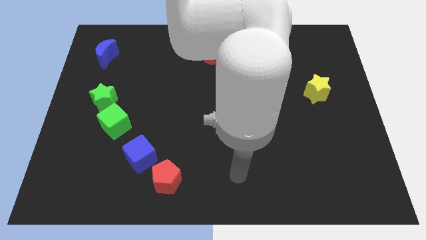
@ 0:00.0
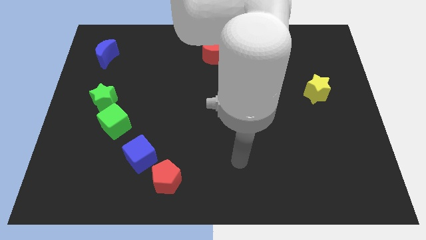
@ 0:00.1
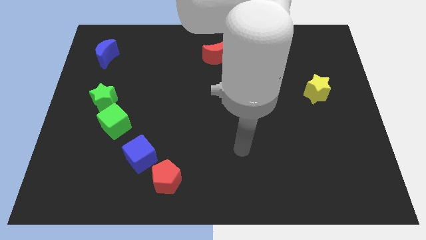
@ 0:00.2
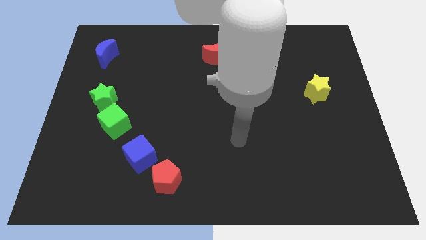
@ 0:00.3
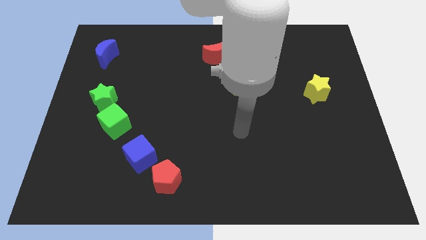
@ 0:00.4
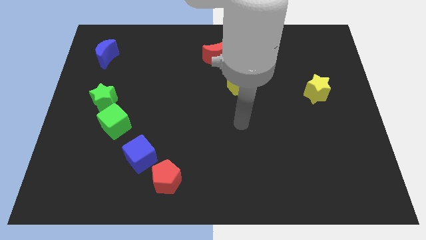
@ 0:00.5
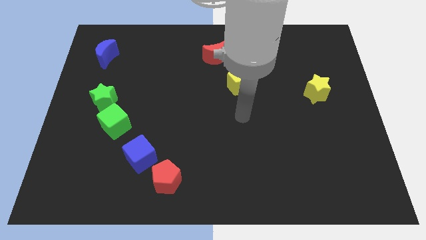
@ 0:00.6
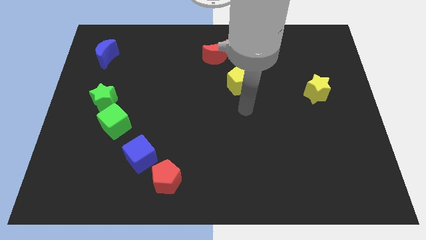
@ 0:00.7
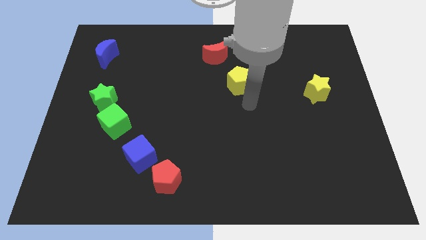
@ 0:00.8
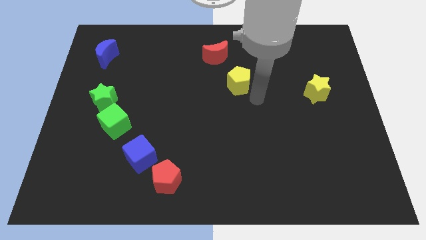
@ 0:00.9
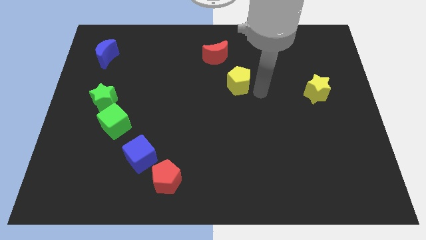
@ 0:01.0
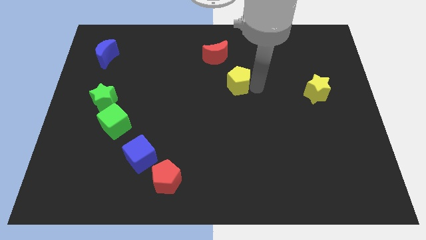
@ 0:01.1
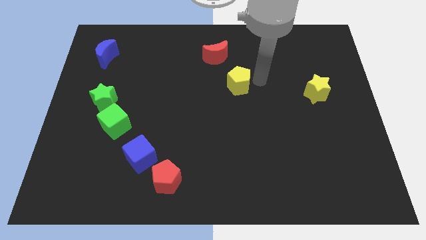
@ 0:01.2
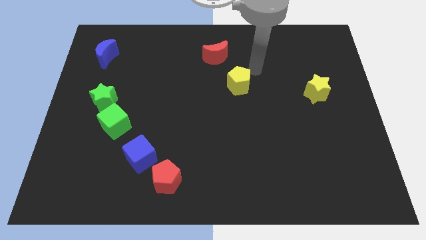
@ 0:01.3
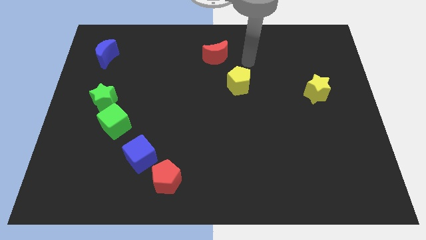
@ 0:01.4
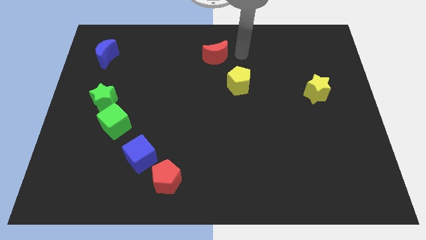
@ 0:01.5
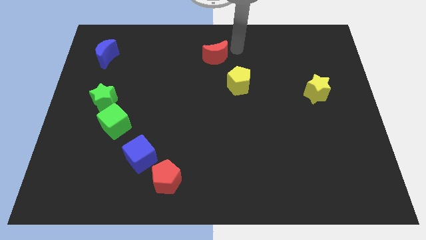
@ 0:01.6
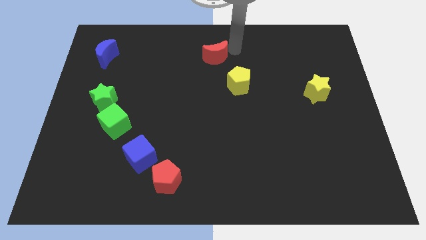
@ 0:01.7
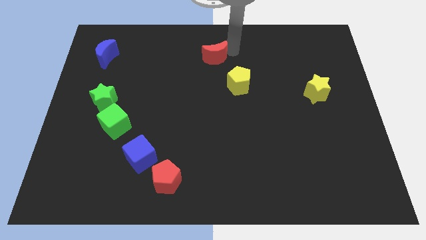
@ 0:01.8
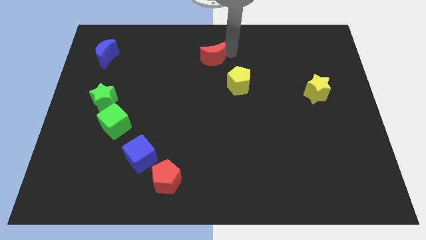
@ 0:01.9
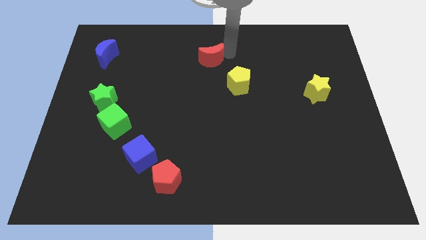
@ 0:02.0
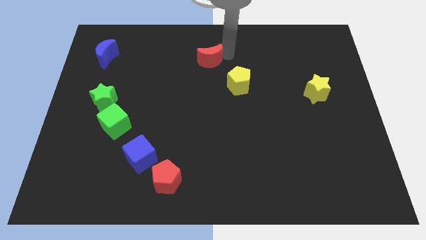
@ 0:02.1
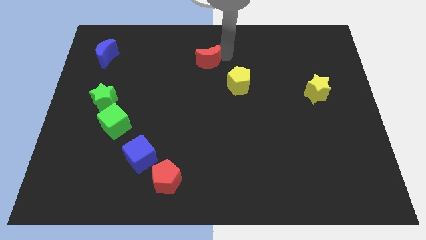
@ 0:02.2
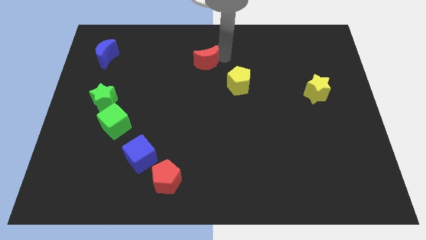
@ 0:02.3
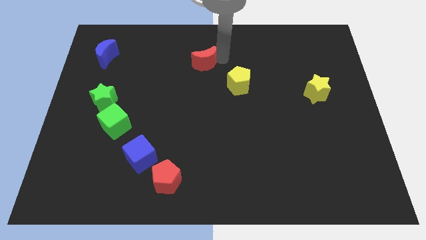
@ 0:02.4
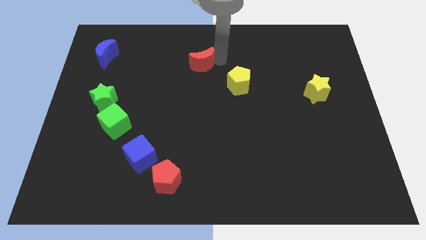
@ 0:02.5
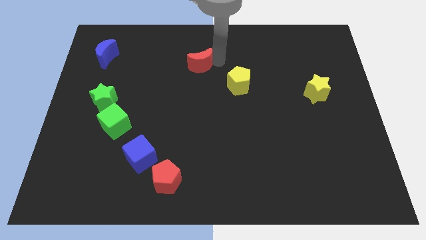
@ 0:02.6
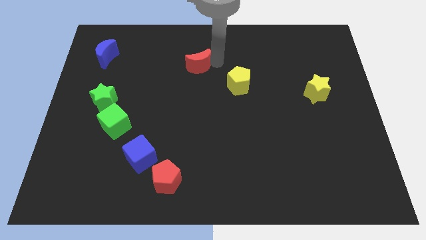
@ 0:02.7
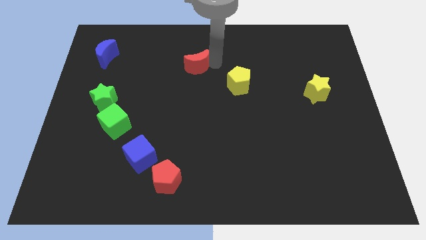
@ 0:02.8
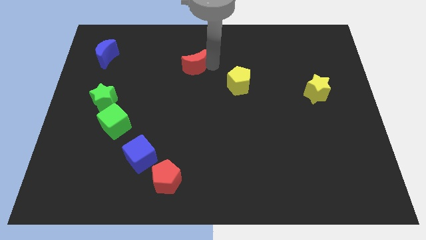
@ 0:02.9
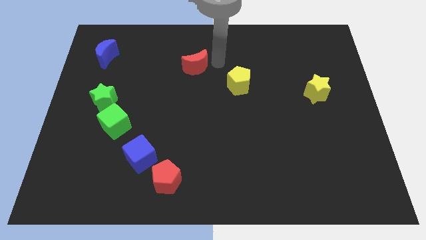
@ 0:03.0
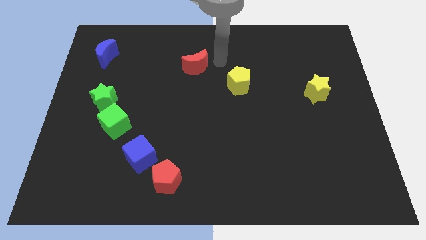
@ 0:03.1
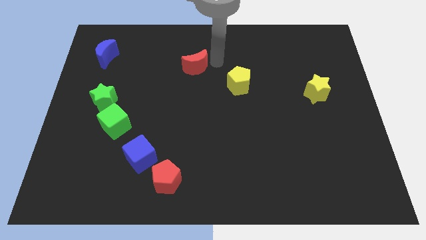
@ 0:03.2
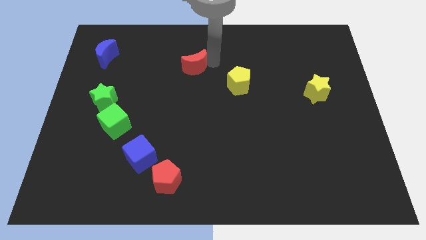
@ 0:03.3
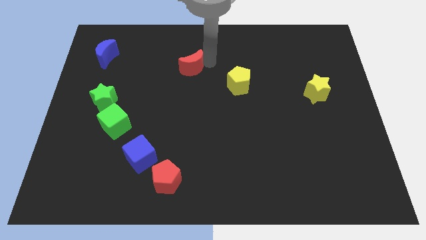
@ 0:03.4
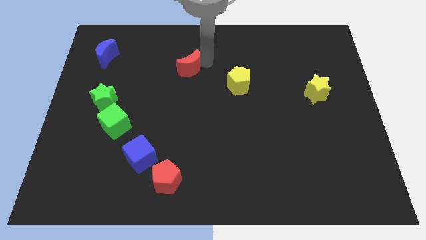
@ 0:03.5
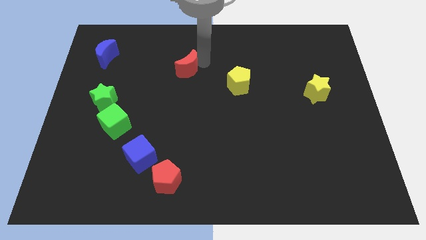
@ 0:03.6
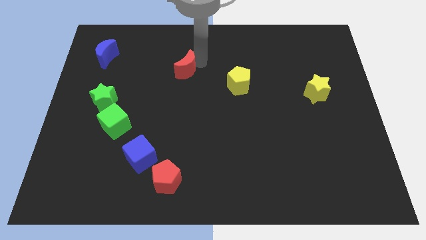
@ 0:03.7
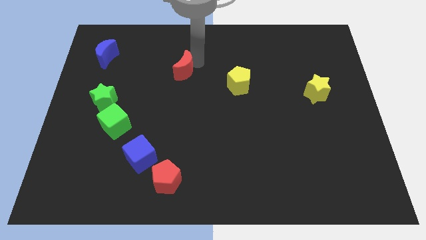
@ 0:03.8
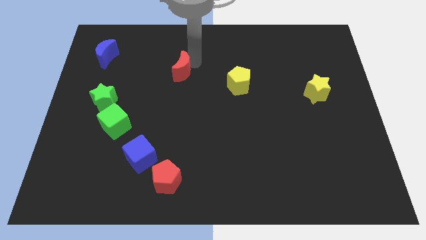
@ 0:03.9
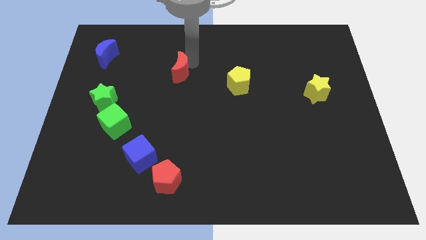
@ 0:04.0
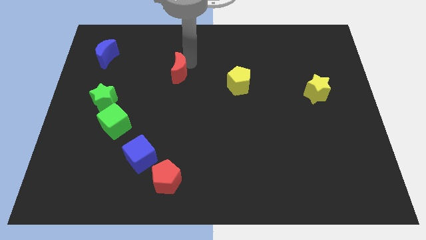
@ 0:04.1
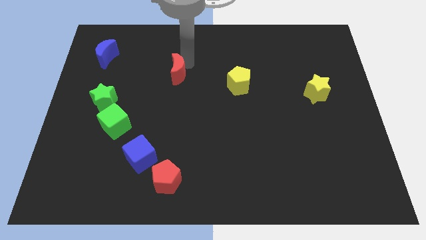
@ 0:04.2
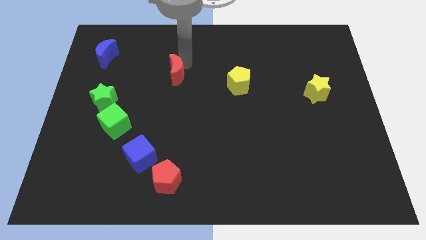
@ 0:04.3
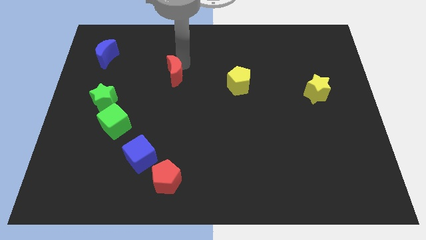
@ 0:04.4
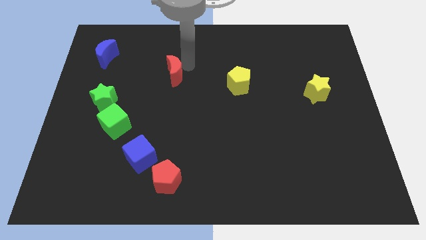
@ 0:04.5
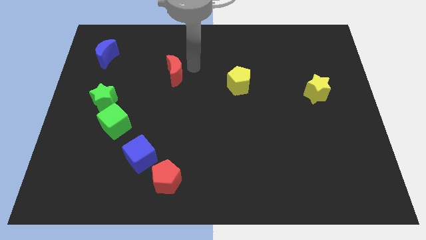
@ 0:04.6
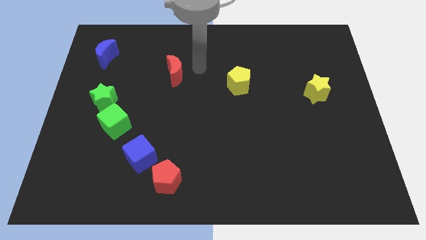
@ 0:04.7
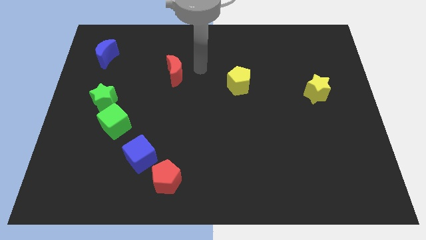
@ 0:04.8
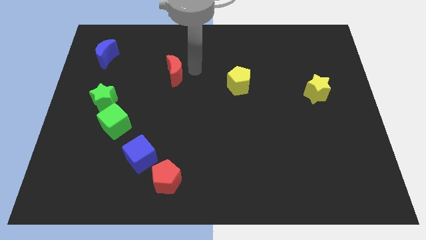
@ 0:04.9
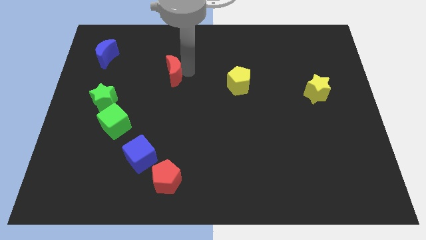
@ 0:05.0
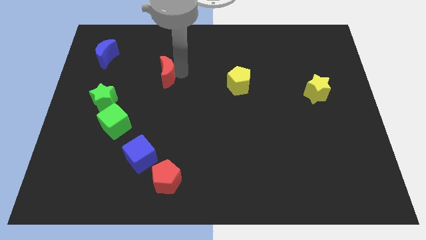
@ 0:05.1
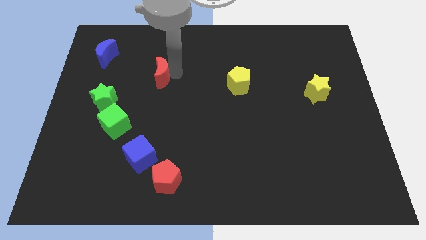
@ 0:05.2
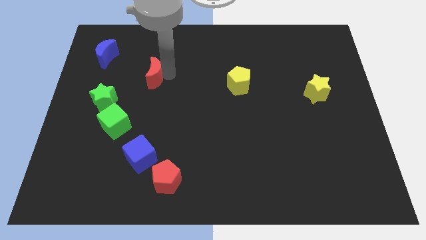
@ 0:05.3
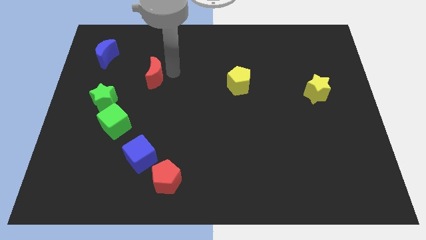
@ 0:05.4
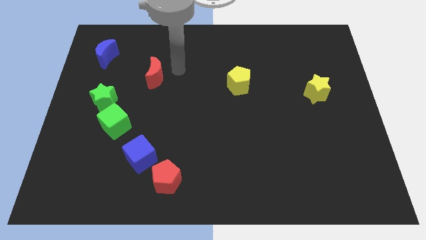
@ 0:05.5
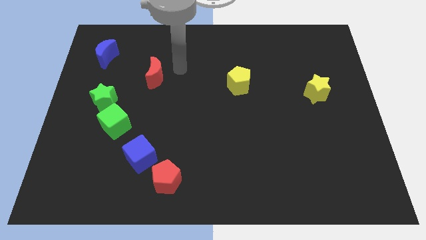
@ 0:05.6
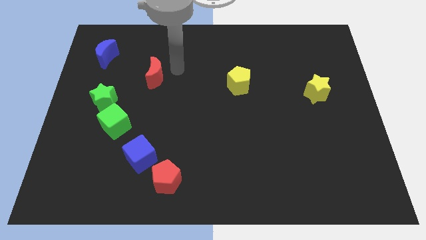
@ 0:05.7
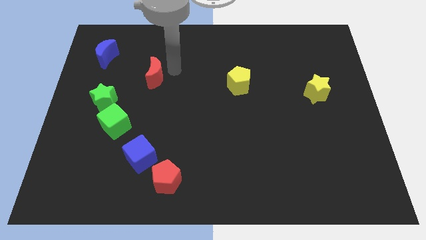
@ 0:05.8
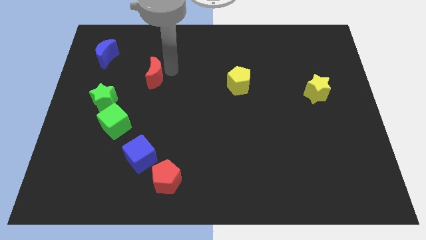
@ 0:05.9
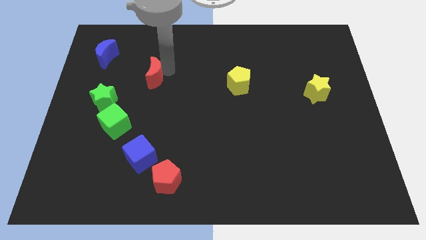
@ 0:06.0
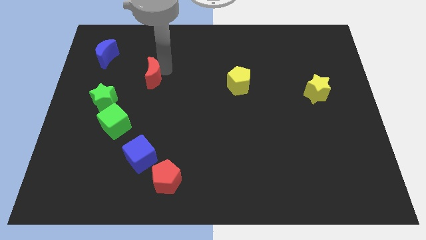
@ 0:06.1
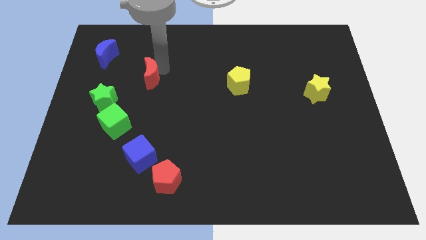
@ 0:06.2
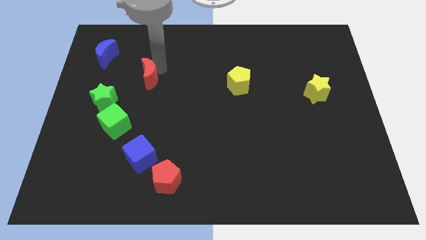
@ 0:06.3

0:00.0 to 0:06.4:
slide the red moon to the top right side of the green star

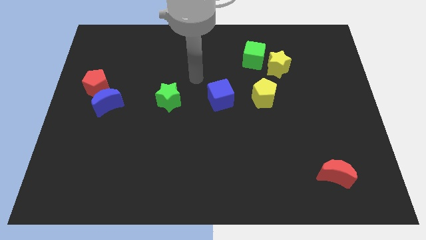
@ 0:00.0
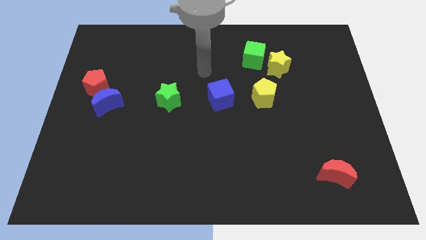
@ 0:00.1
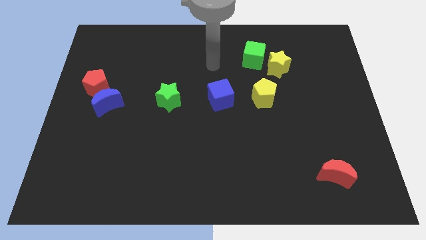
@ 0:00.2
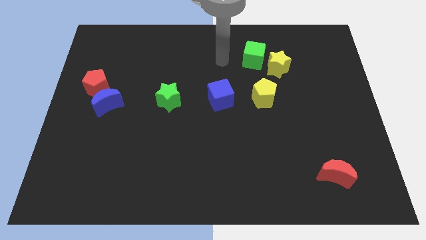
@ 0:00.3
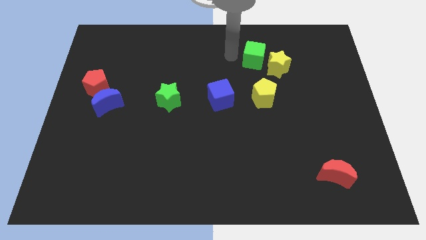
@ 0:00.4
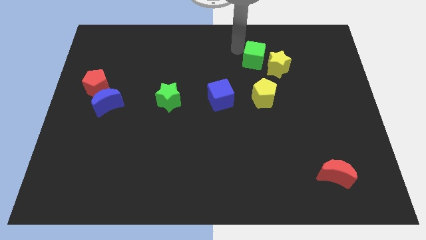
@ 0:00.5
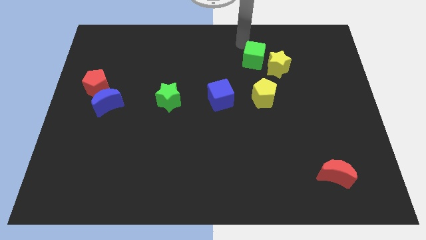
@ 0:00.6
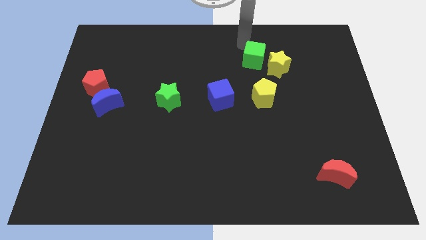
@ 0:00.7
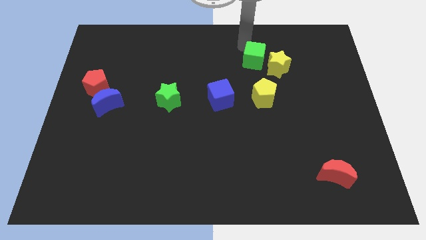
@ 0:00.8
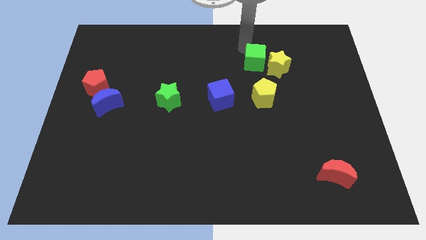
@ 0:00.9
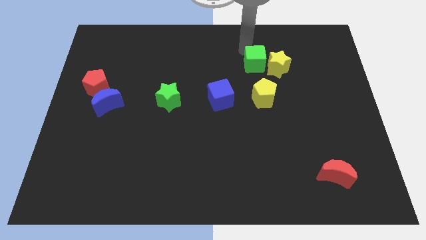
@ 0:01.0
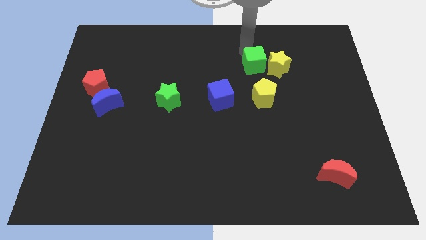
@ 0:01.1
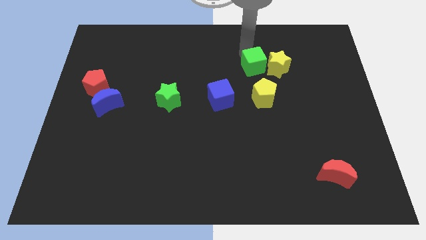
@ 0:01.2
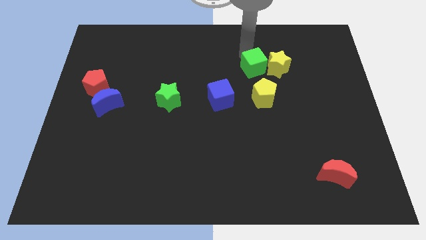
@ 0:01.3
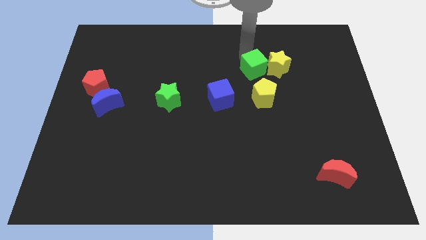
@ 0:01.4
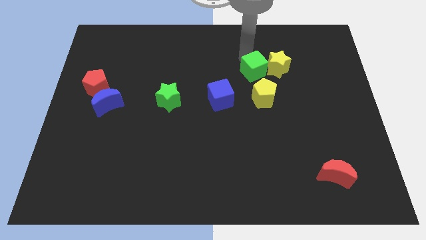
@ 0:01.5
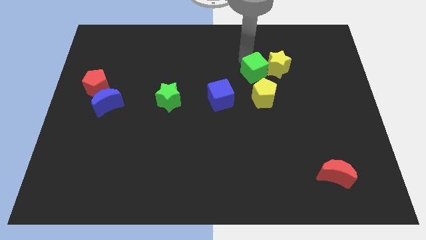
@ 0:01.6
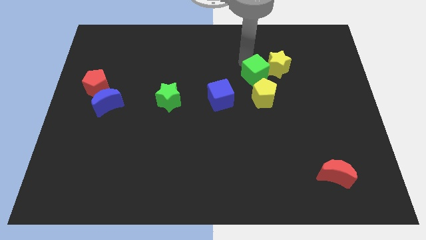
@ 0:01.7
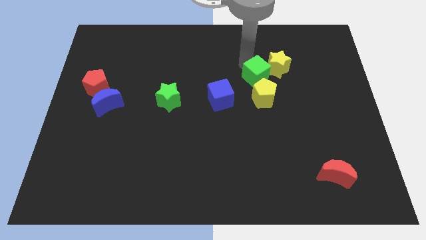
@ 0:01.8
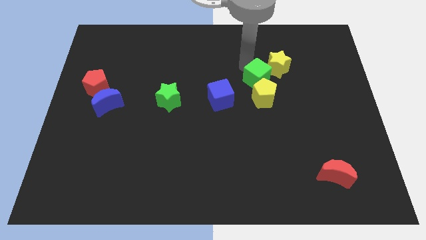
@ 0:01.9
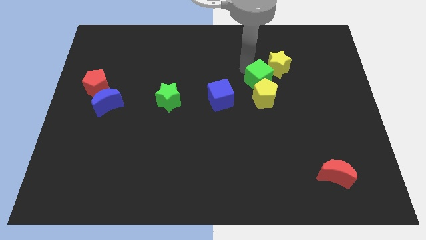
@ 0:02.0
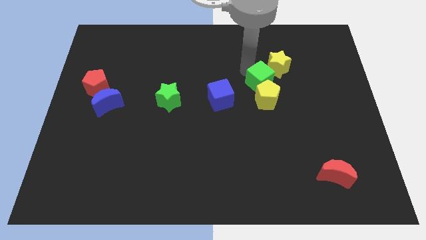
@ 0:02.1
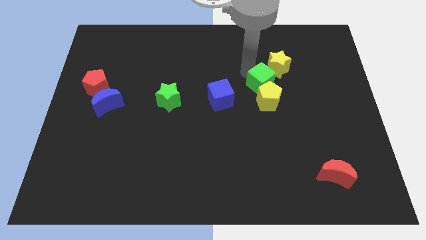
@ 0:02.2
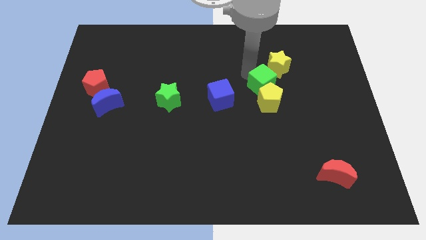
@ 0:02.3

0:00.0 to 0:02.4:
slide the green cube just right of the blue cube
